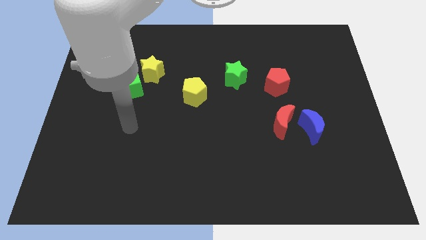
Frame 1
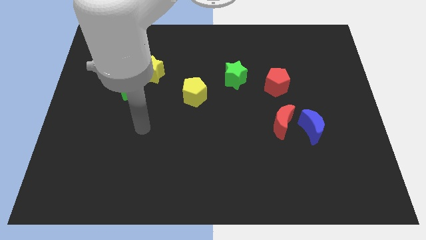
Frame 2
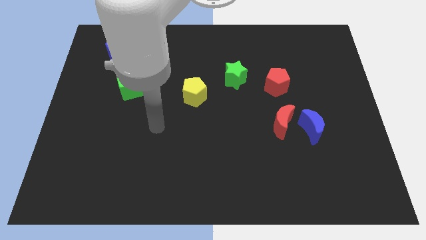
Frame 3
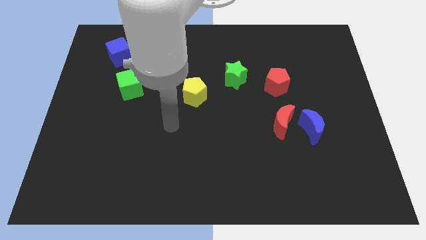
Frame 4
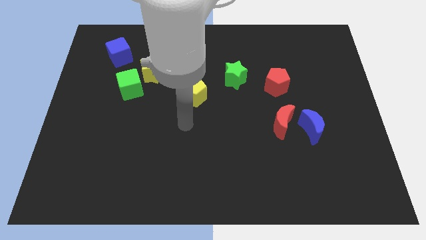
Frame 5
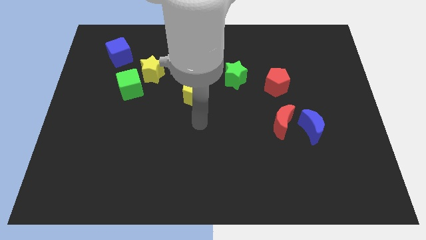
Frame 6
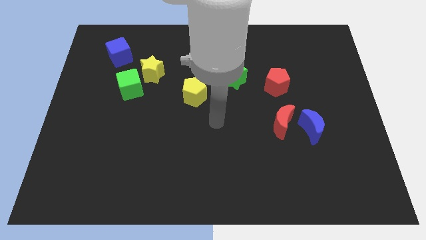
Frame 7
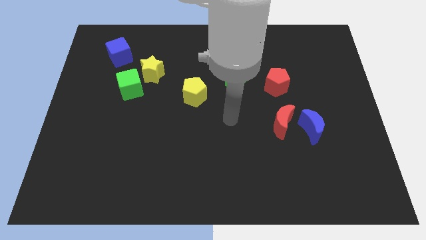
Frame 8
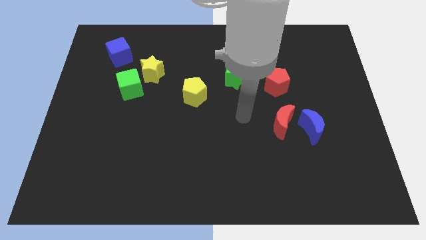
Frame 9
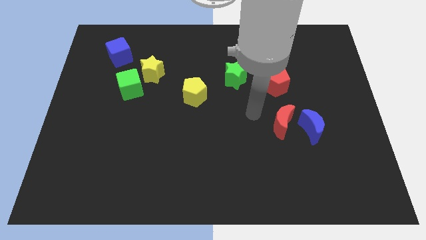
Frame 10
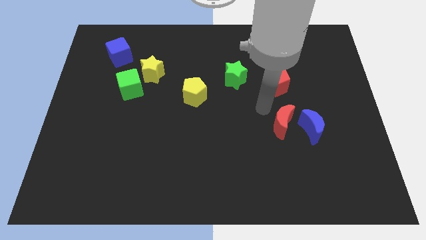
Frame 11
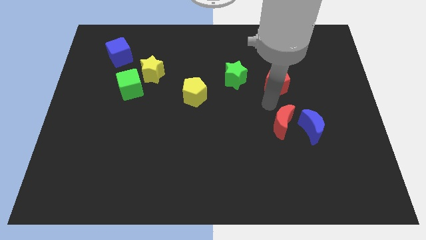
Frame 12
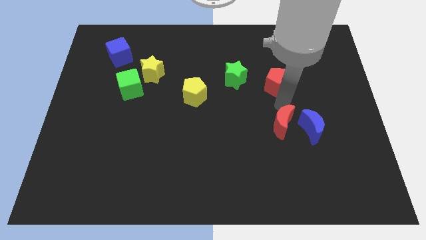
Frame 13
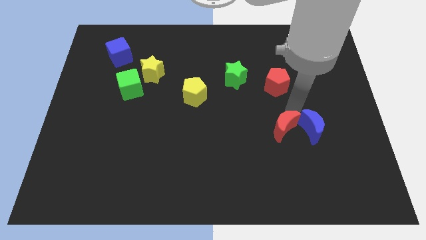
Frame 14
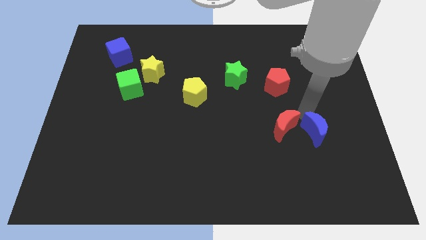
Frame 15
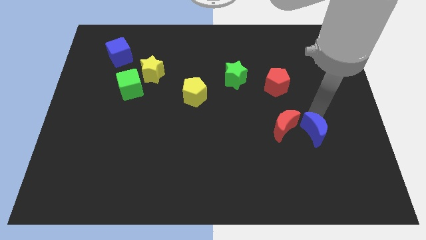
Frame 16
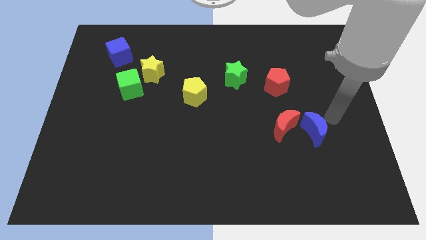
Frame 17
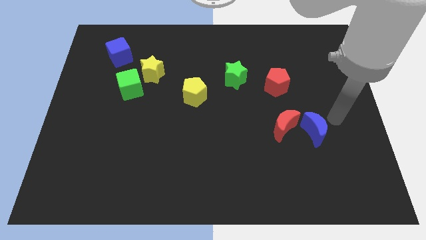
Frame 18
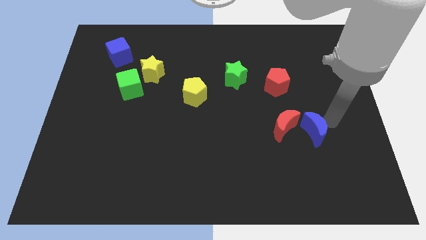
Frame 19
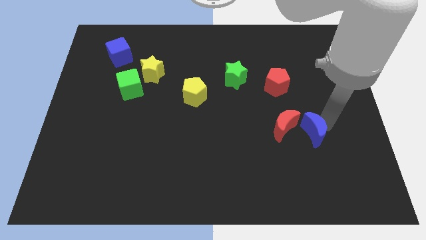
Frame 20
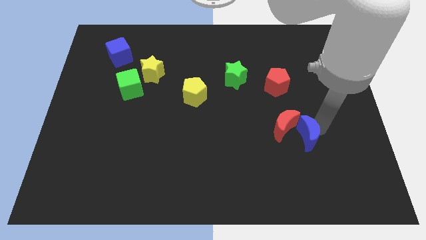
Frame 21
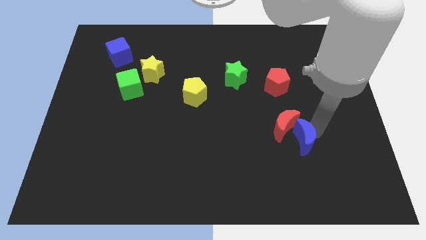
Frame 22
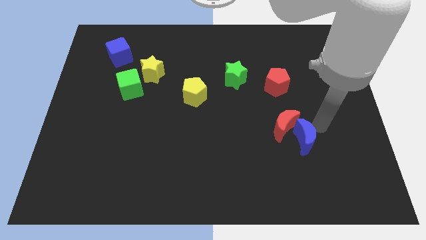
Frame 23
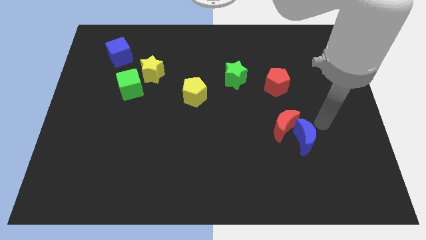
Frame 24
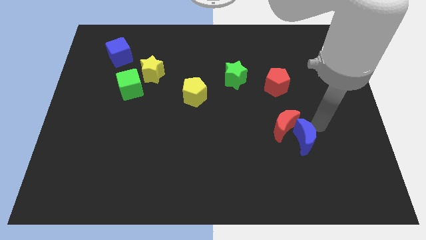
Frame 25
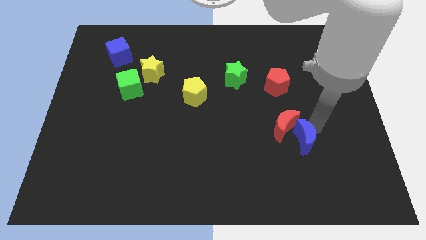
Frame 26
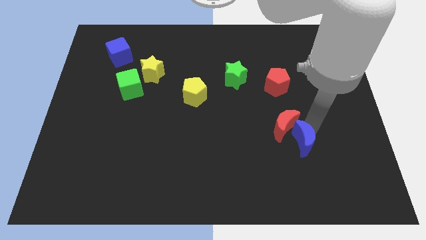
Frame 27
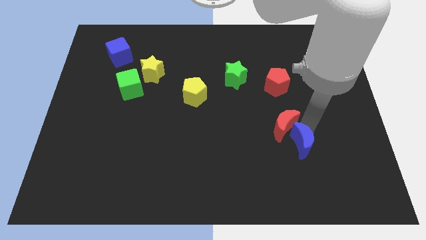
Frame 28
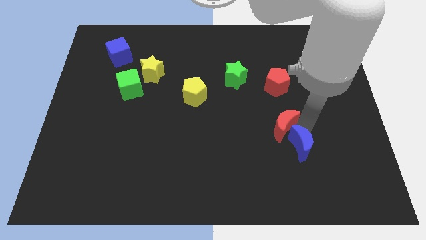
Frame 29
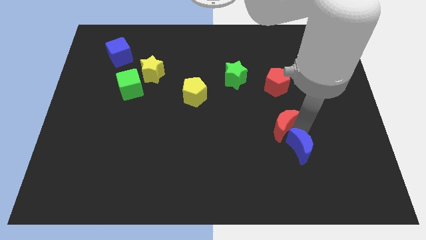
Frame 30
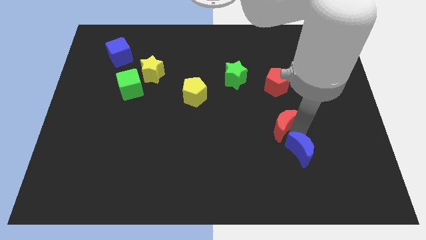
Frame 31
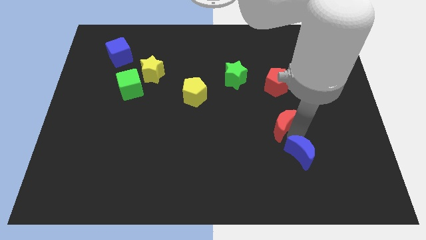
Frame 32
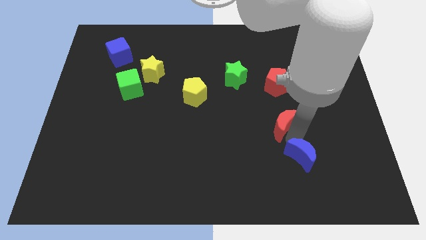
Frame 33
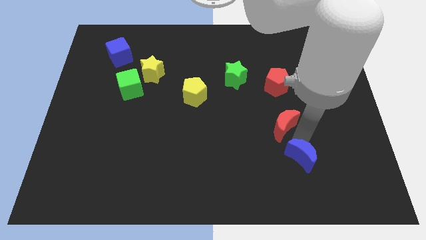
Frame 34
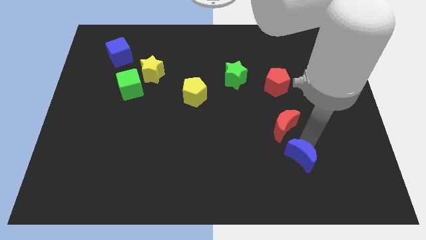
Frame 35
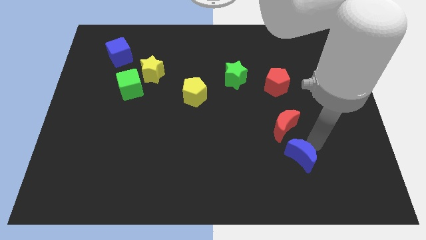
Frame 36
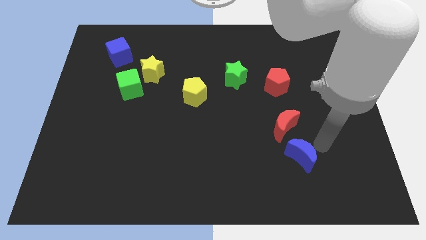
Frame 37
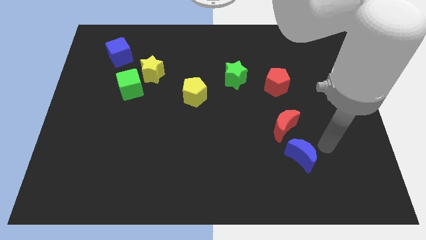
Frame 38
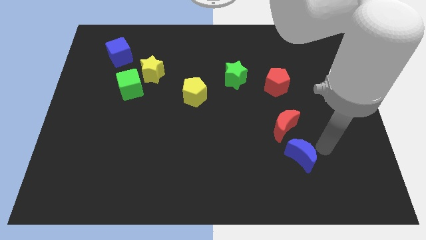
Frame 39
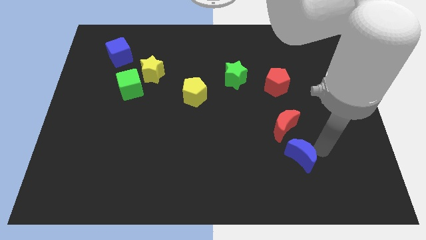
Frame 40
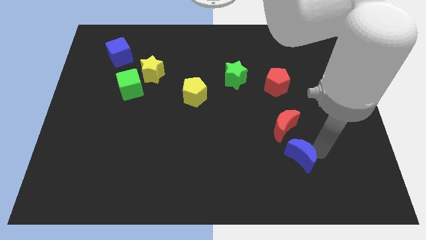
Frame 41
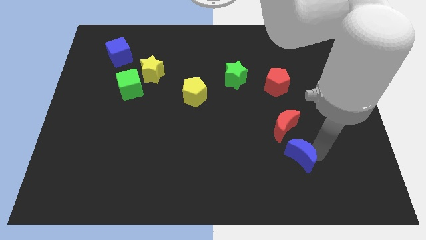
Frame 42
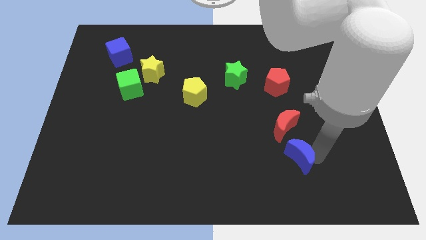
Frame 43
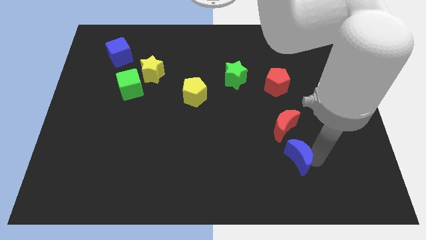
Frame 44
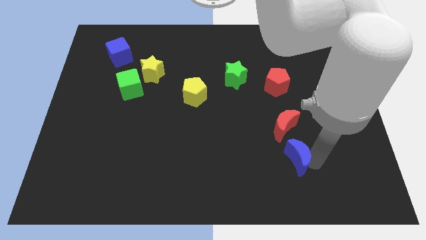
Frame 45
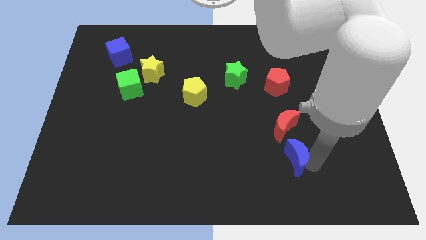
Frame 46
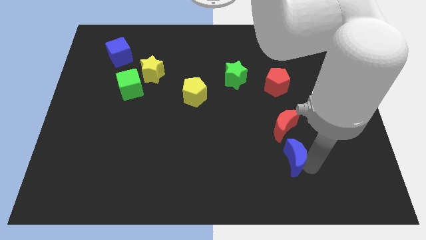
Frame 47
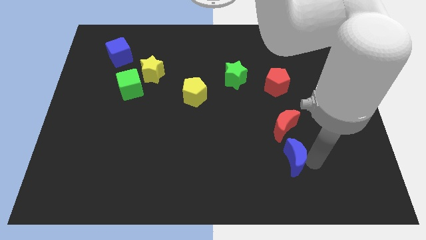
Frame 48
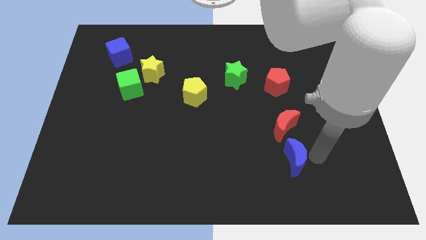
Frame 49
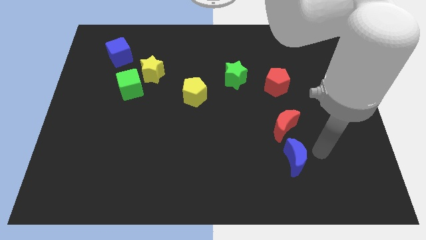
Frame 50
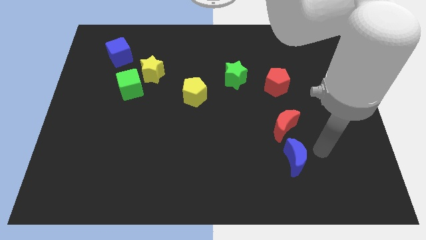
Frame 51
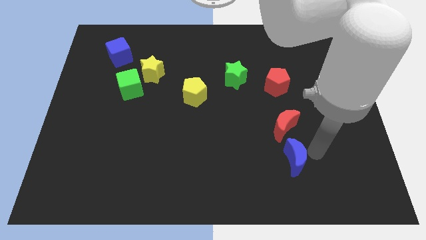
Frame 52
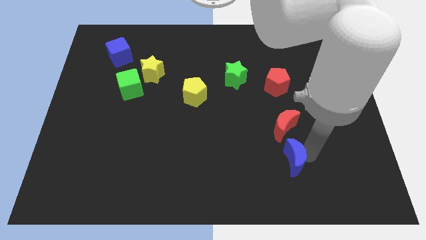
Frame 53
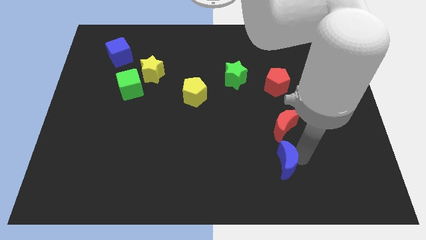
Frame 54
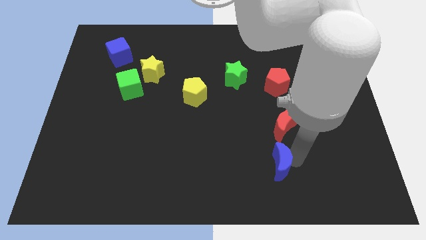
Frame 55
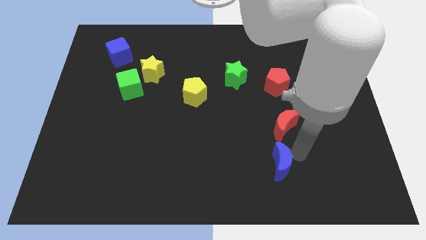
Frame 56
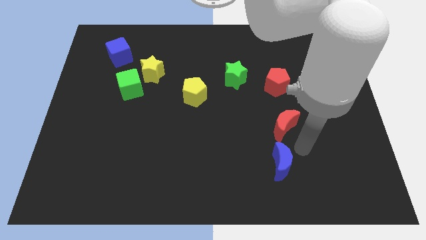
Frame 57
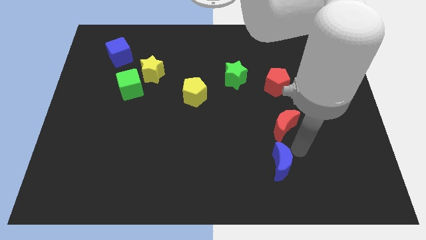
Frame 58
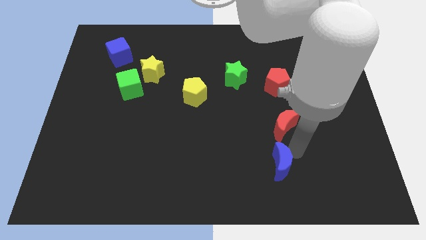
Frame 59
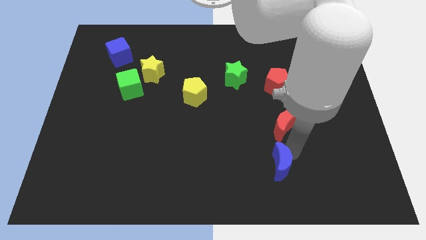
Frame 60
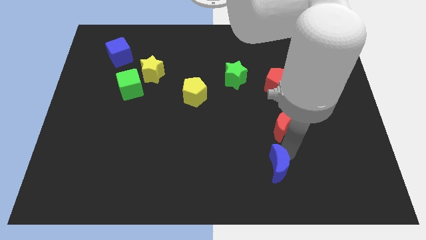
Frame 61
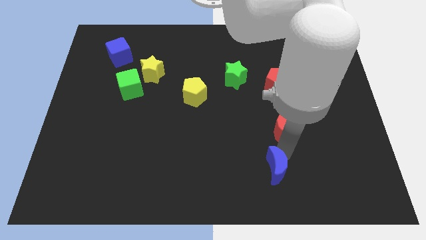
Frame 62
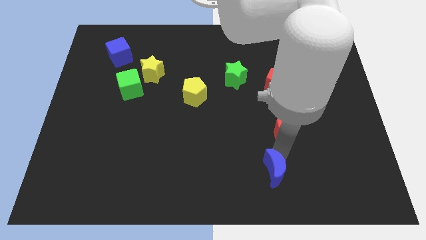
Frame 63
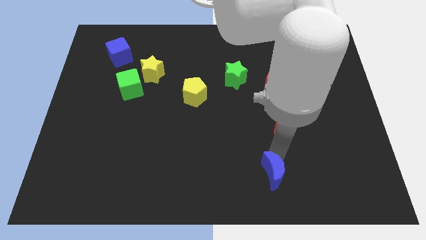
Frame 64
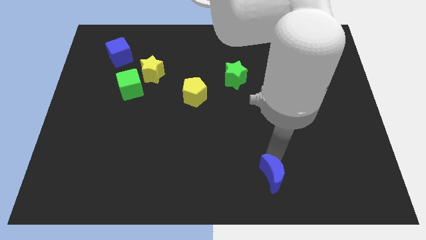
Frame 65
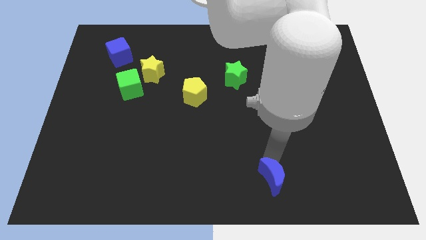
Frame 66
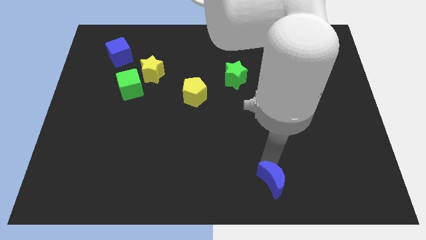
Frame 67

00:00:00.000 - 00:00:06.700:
put the blue moon to the bottom side
